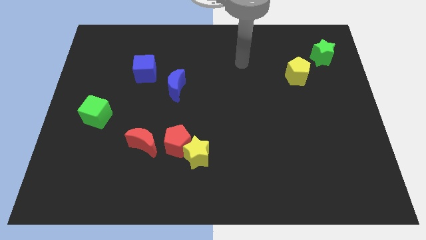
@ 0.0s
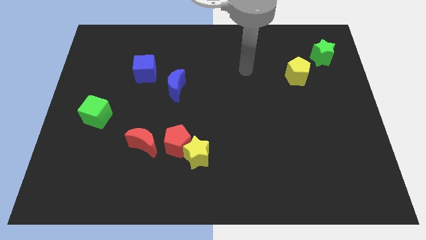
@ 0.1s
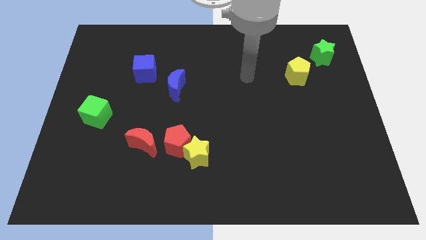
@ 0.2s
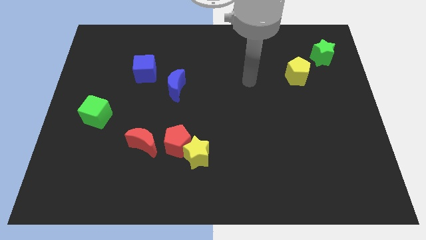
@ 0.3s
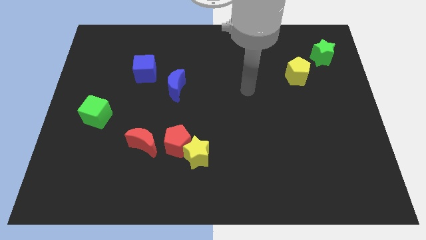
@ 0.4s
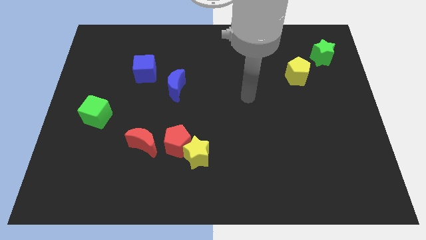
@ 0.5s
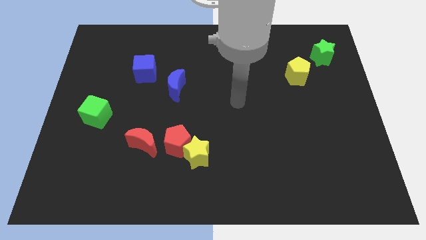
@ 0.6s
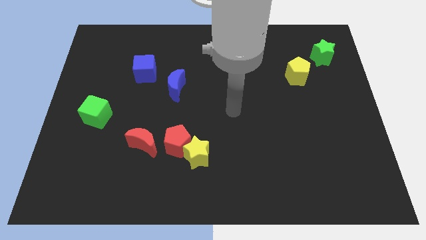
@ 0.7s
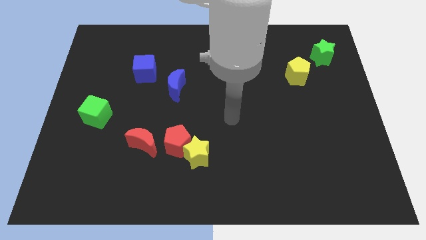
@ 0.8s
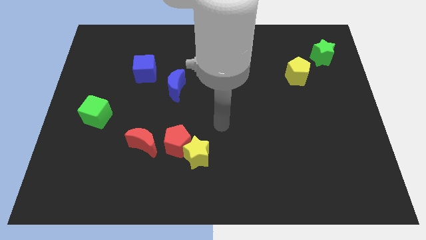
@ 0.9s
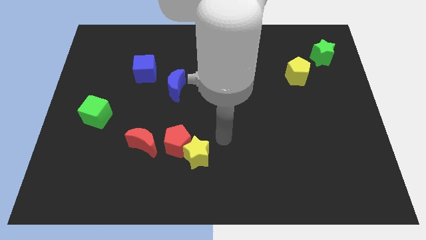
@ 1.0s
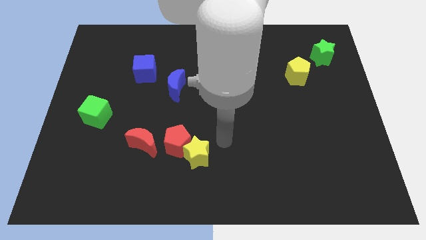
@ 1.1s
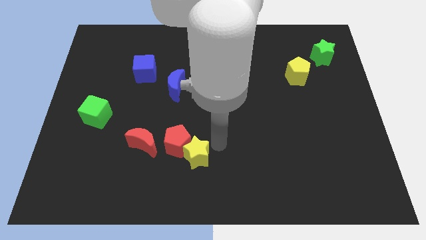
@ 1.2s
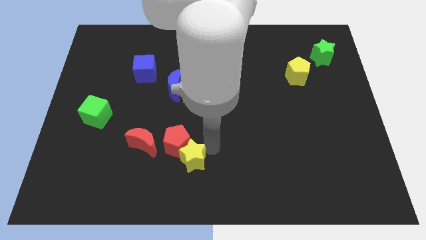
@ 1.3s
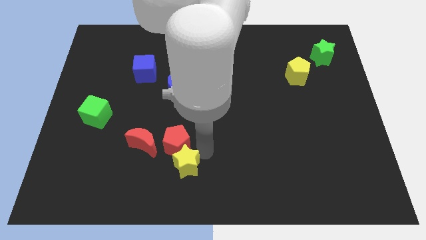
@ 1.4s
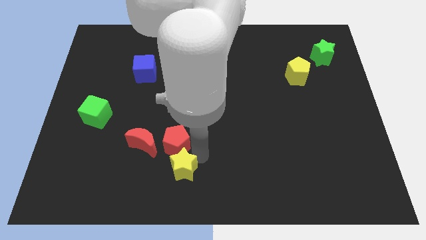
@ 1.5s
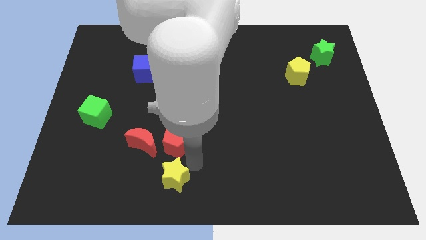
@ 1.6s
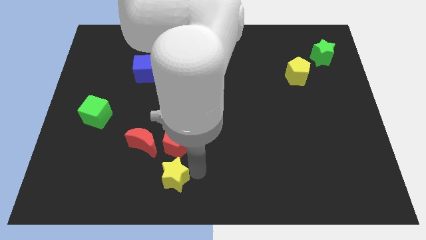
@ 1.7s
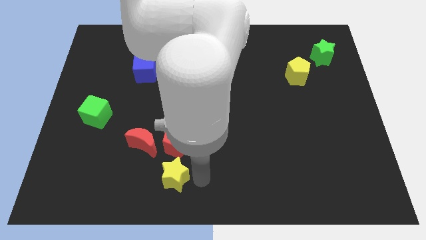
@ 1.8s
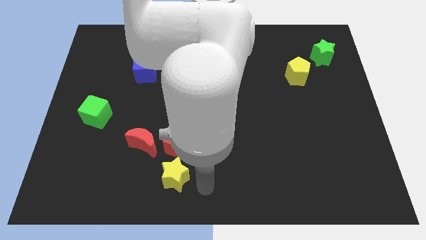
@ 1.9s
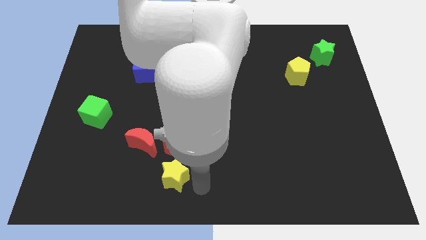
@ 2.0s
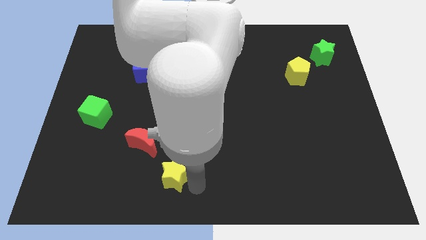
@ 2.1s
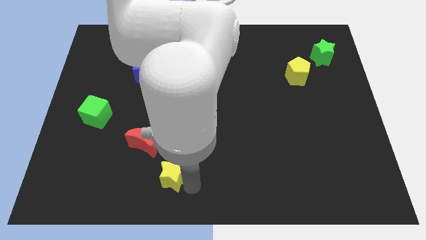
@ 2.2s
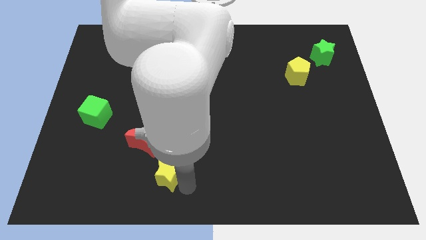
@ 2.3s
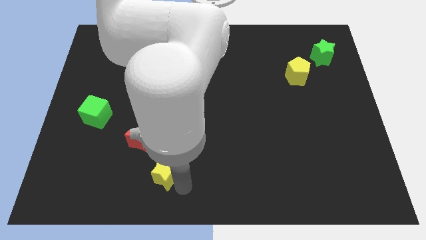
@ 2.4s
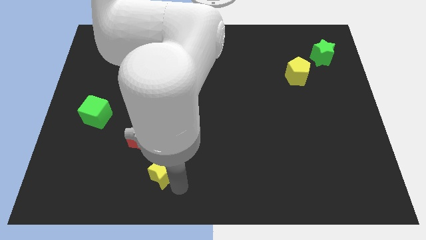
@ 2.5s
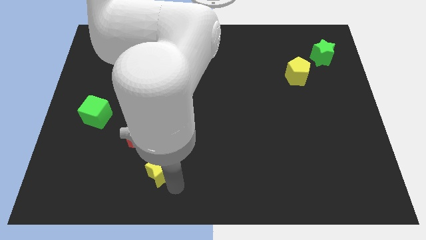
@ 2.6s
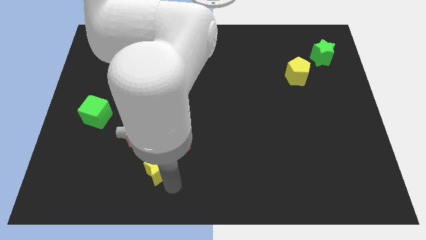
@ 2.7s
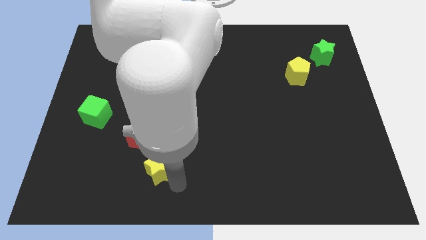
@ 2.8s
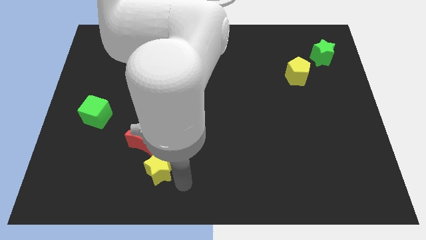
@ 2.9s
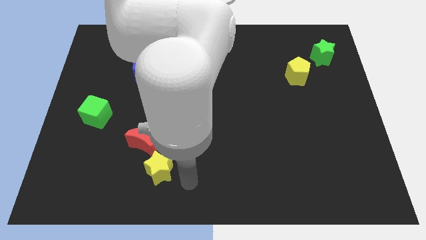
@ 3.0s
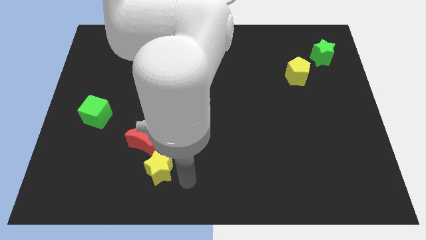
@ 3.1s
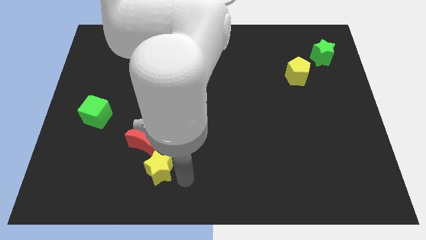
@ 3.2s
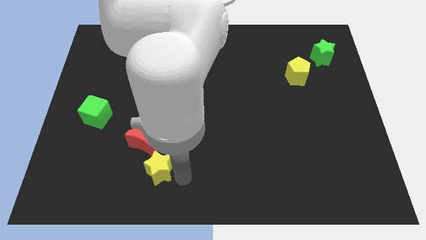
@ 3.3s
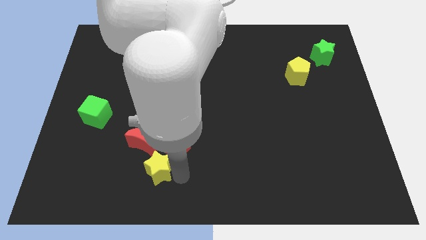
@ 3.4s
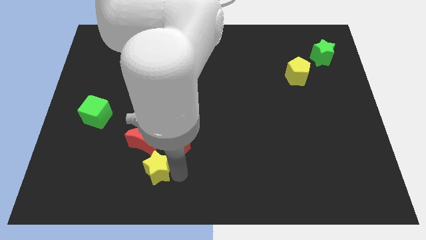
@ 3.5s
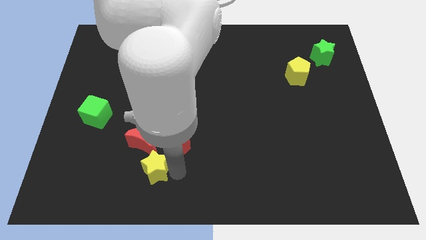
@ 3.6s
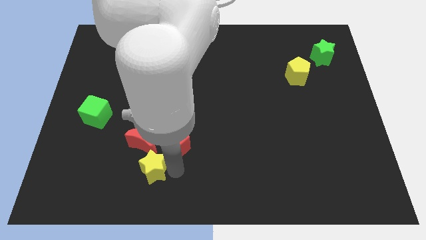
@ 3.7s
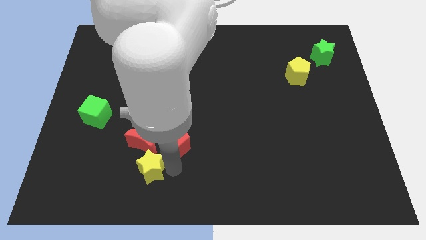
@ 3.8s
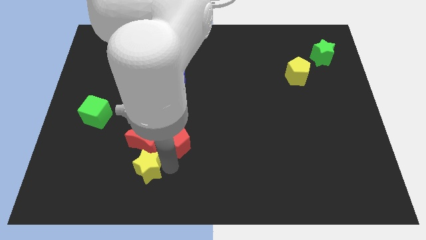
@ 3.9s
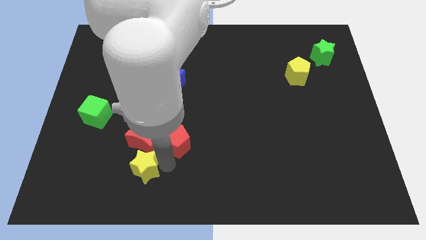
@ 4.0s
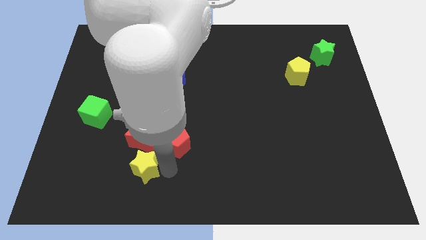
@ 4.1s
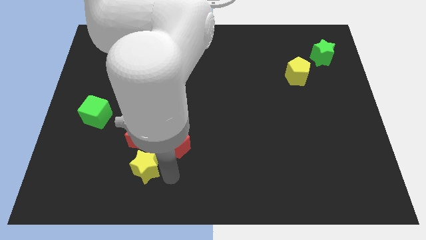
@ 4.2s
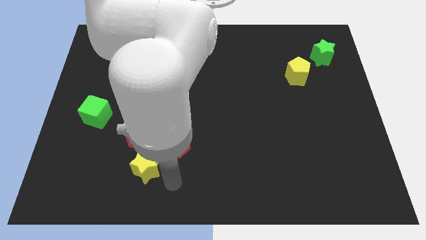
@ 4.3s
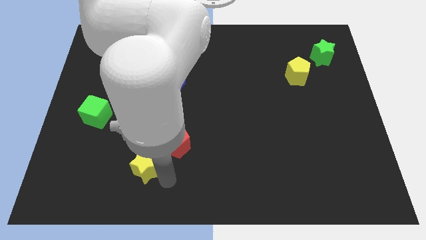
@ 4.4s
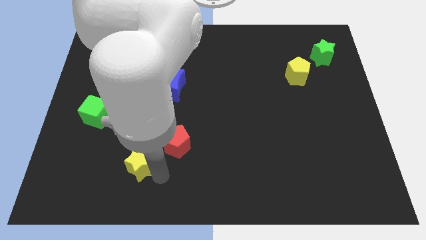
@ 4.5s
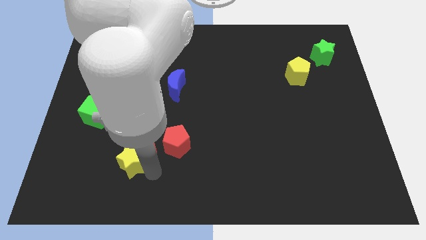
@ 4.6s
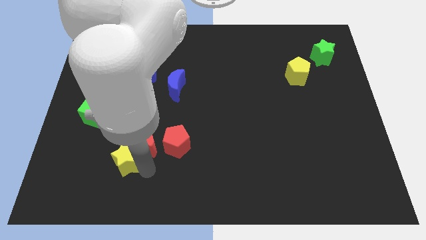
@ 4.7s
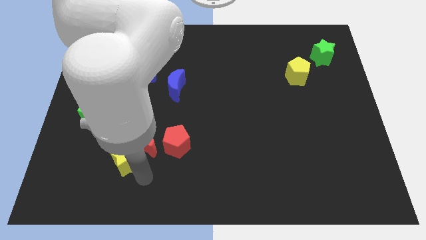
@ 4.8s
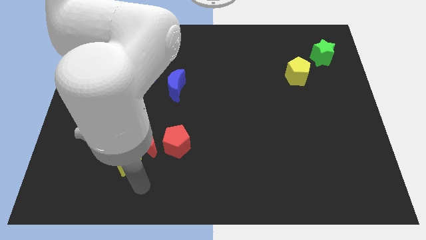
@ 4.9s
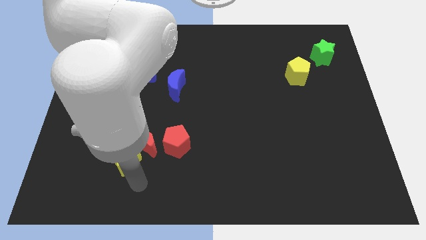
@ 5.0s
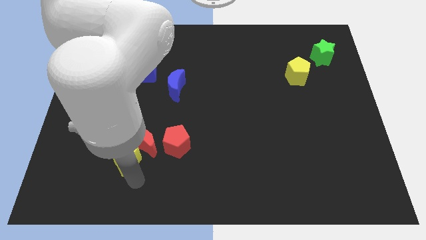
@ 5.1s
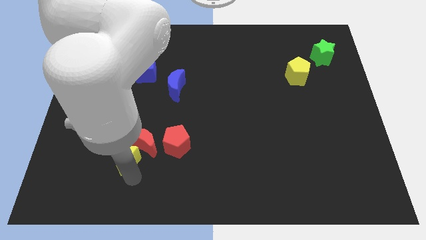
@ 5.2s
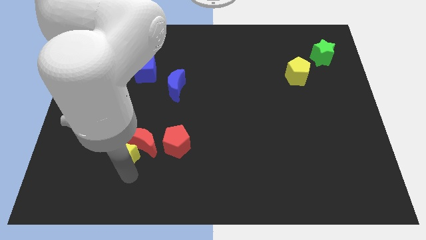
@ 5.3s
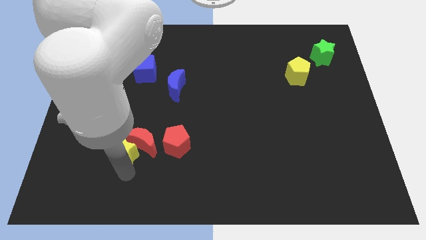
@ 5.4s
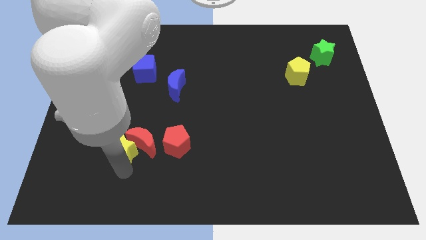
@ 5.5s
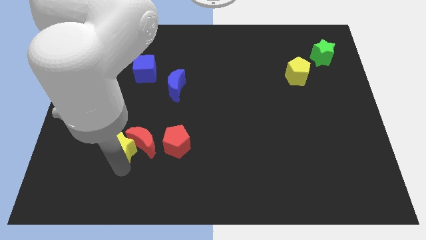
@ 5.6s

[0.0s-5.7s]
move the yellow star to the bottom right of the green cube

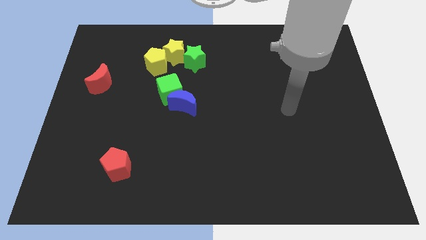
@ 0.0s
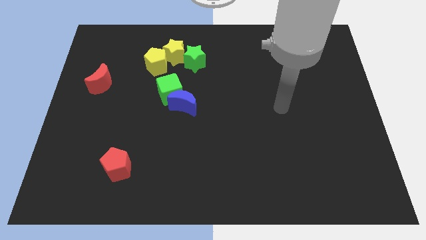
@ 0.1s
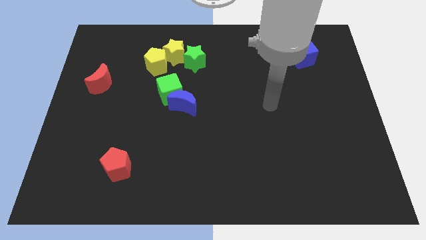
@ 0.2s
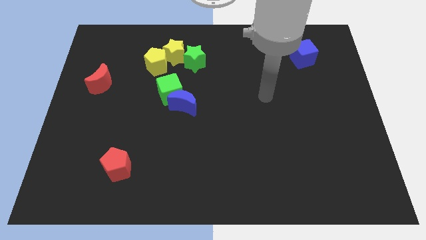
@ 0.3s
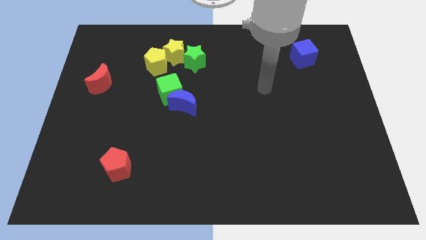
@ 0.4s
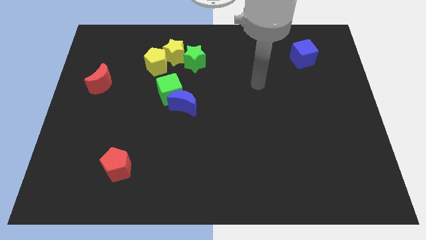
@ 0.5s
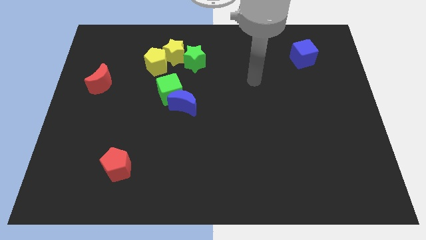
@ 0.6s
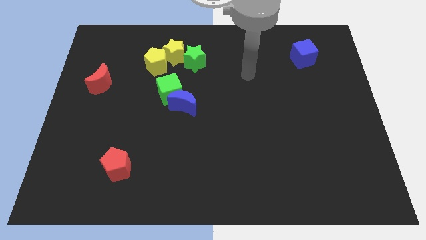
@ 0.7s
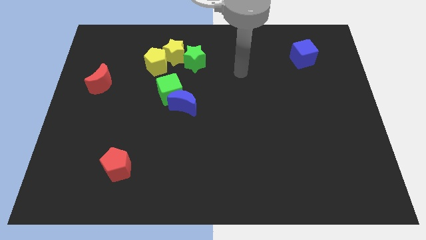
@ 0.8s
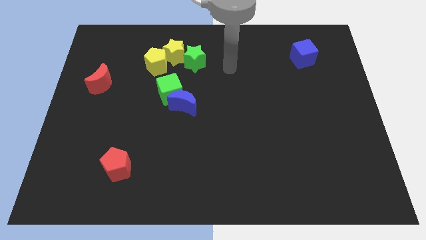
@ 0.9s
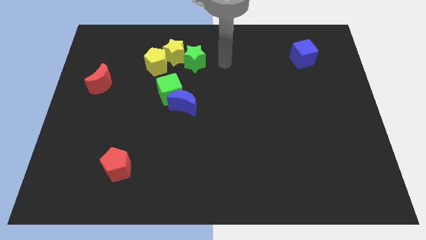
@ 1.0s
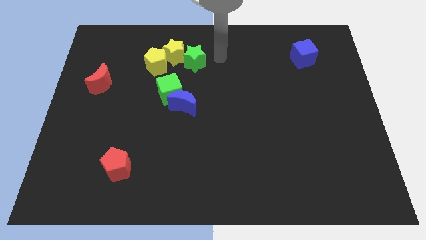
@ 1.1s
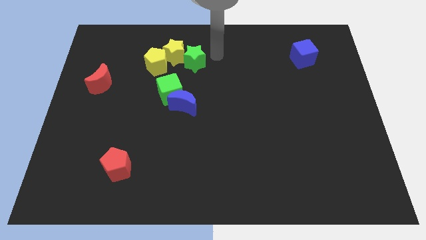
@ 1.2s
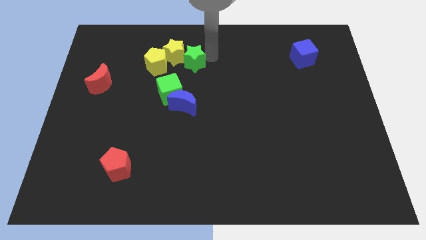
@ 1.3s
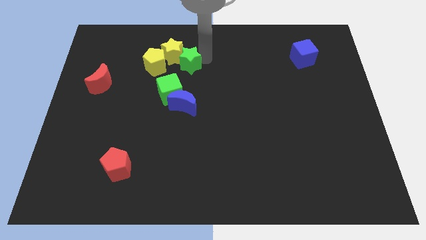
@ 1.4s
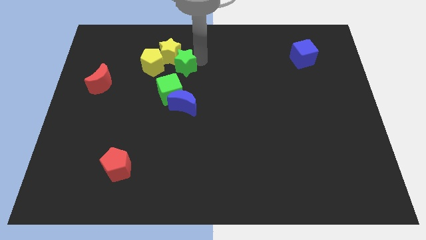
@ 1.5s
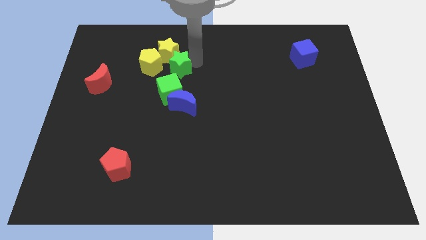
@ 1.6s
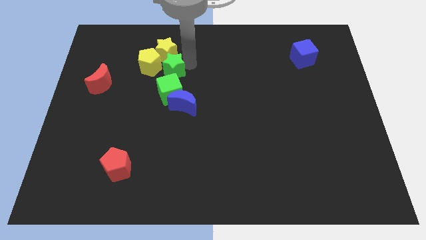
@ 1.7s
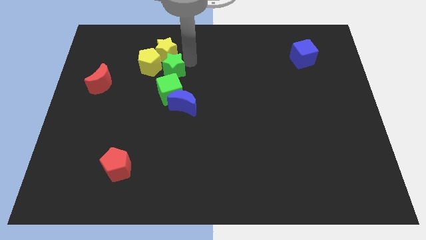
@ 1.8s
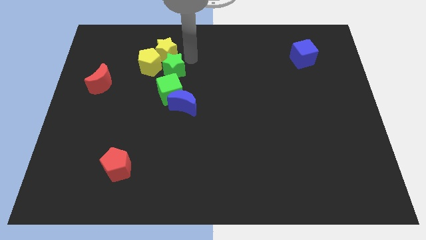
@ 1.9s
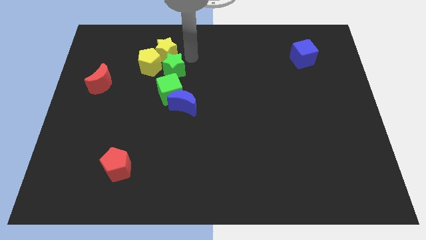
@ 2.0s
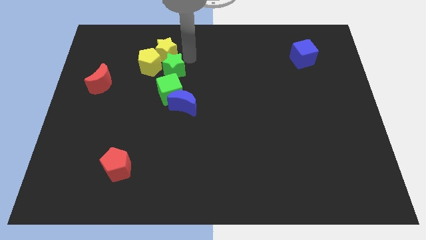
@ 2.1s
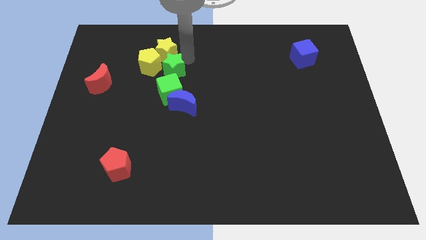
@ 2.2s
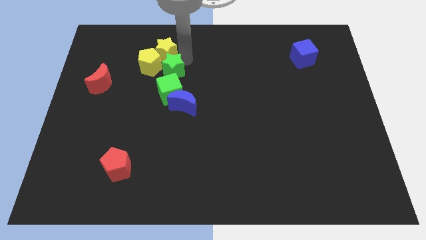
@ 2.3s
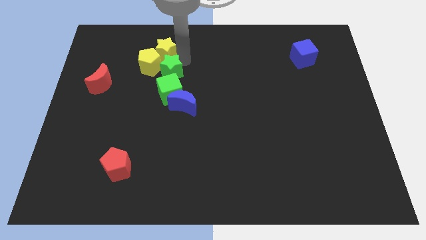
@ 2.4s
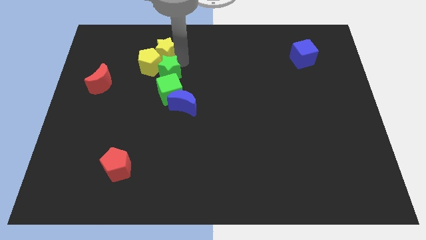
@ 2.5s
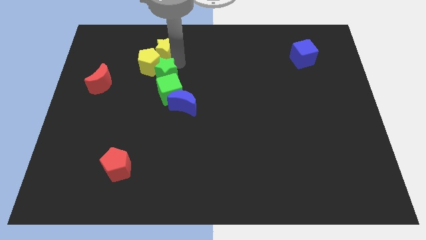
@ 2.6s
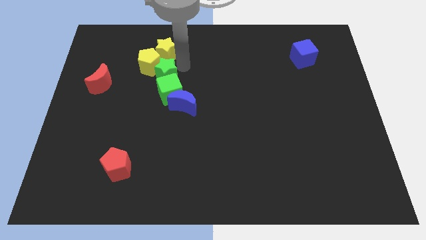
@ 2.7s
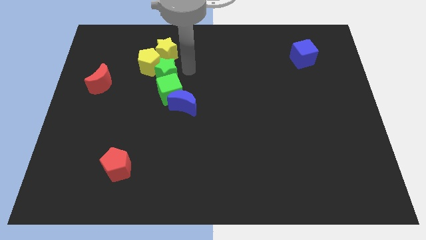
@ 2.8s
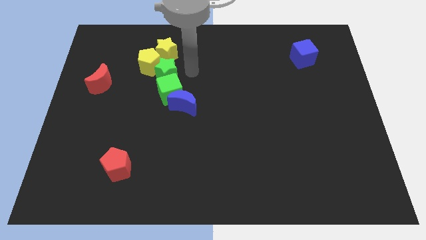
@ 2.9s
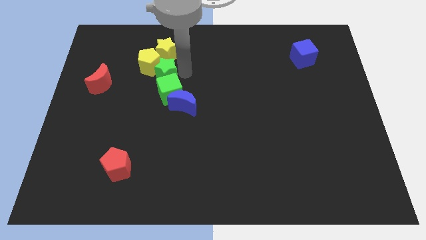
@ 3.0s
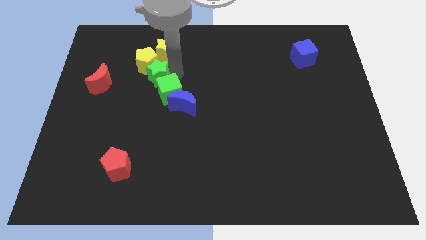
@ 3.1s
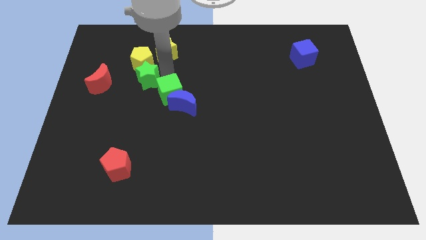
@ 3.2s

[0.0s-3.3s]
move the green star to the bottom left side of the yellow pentagon
